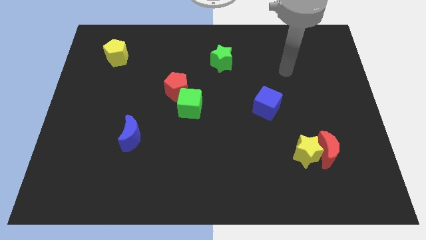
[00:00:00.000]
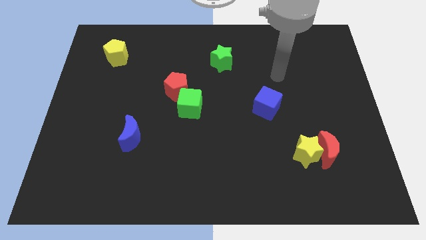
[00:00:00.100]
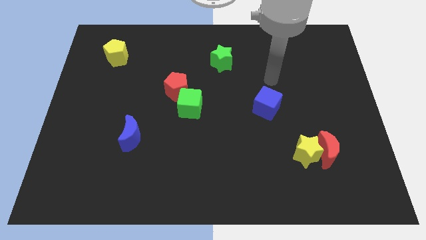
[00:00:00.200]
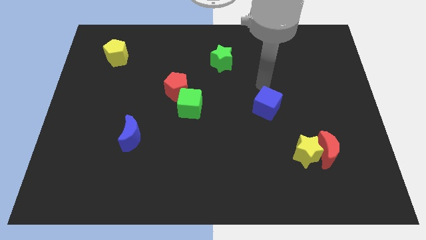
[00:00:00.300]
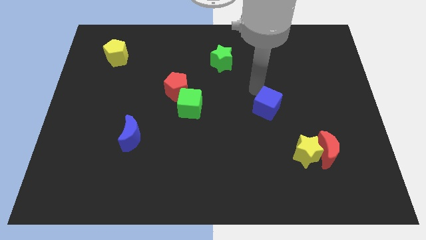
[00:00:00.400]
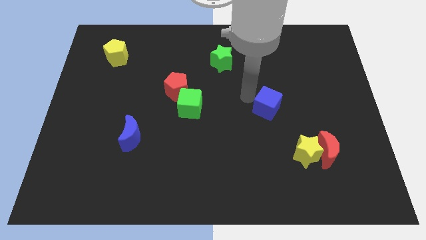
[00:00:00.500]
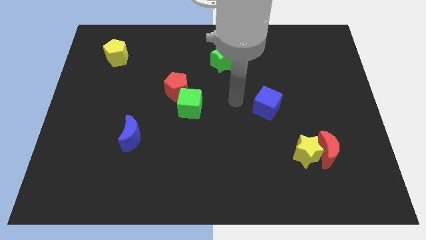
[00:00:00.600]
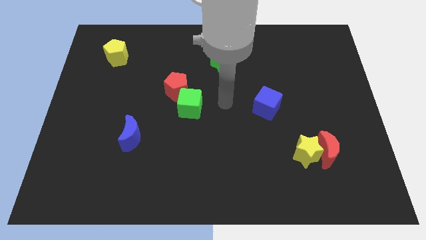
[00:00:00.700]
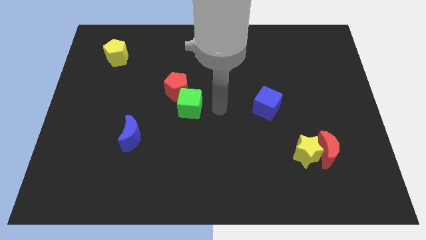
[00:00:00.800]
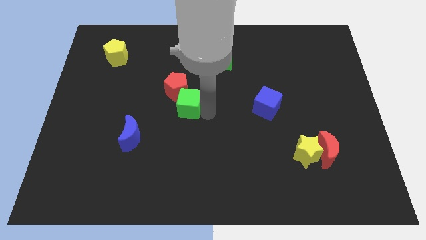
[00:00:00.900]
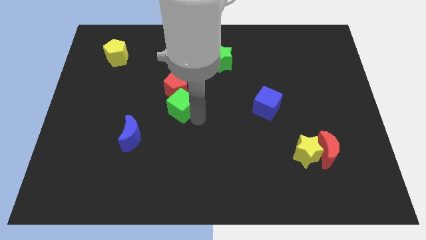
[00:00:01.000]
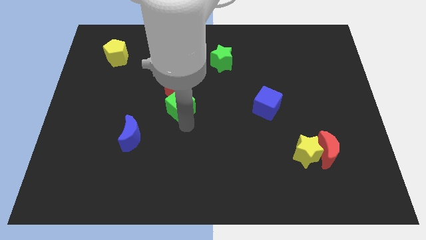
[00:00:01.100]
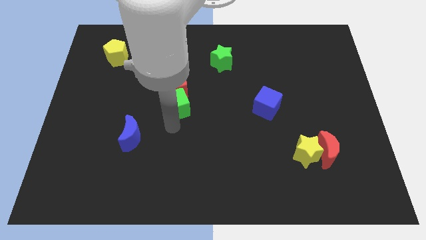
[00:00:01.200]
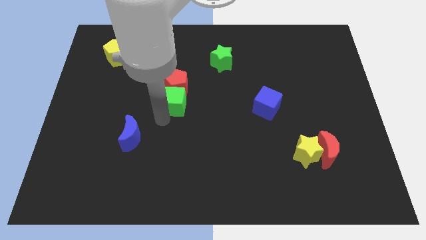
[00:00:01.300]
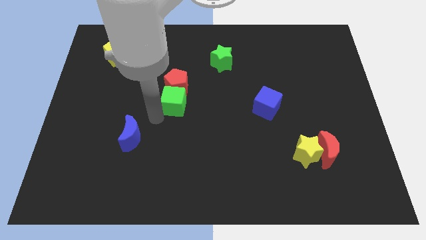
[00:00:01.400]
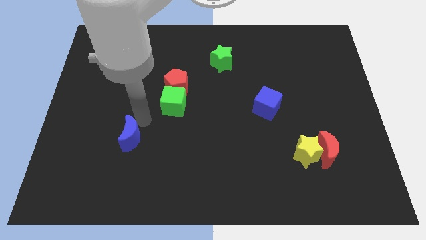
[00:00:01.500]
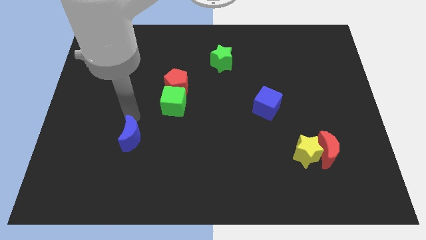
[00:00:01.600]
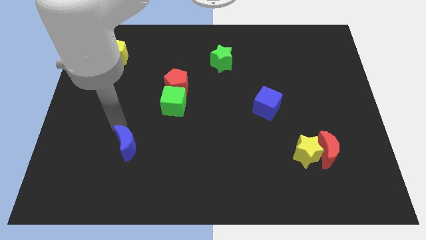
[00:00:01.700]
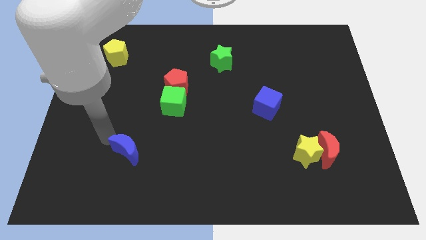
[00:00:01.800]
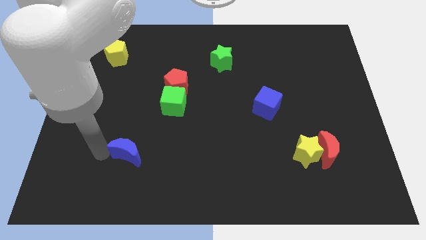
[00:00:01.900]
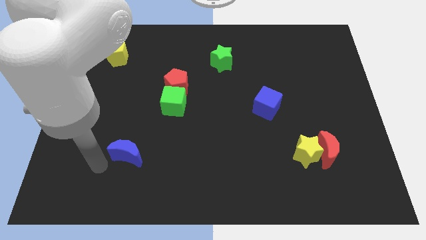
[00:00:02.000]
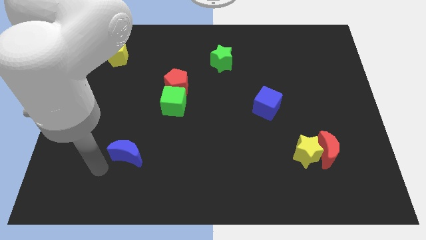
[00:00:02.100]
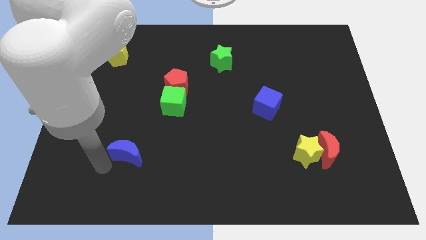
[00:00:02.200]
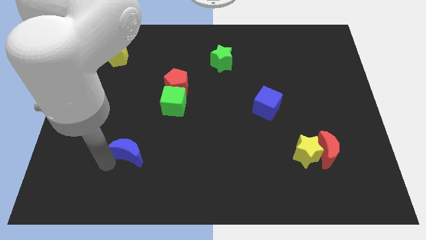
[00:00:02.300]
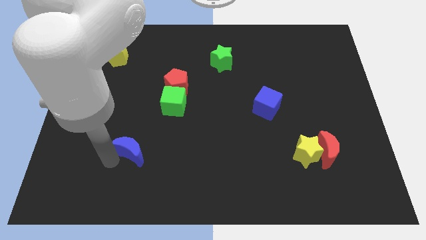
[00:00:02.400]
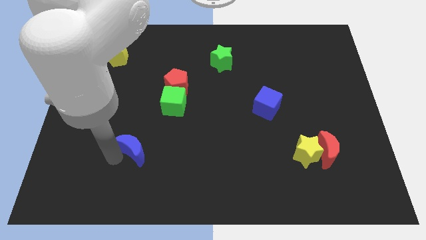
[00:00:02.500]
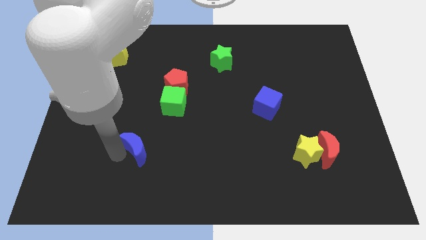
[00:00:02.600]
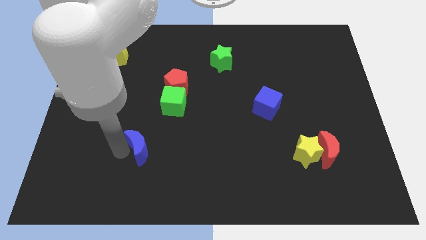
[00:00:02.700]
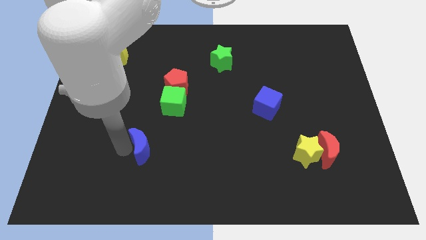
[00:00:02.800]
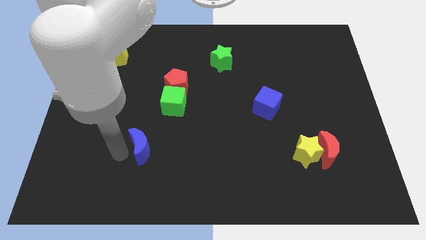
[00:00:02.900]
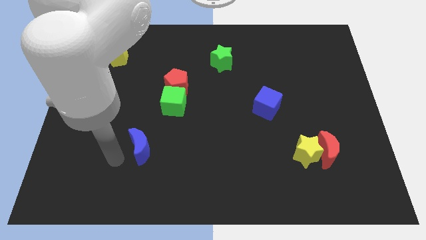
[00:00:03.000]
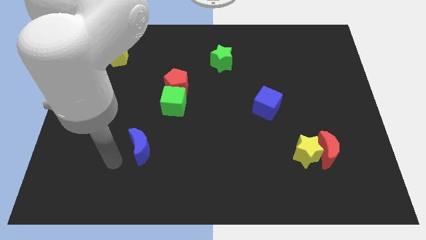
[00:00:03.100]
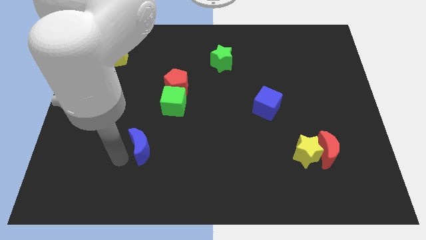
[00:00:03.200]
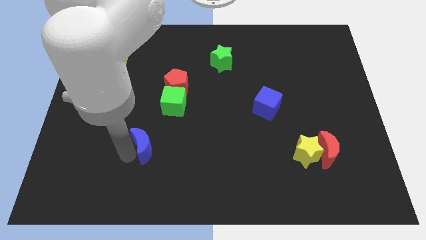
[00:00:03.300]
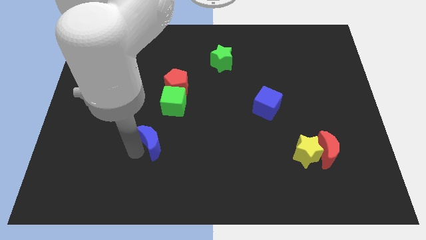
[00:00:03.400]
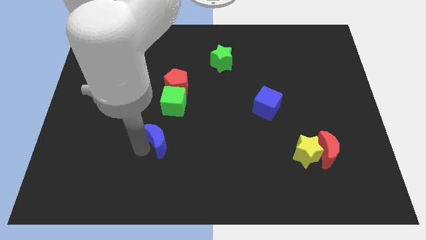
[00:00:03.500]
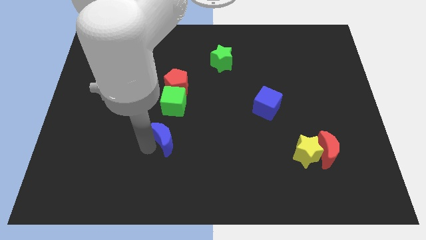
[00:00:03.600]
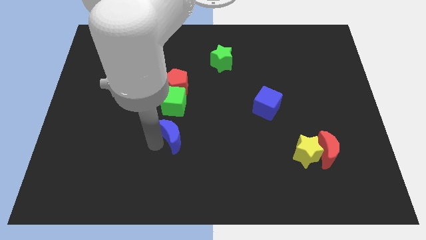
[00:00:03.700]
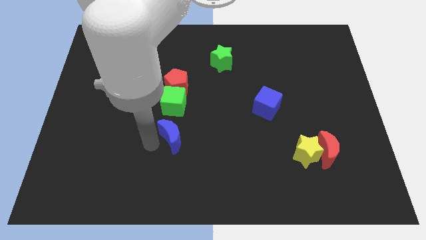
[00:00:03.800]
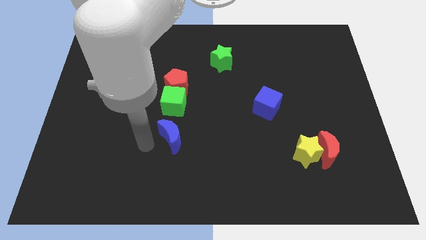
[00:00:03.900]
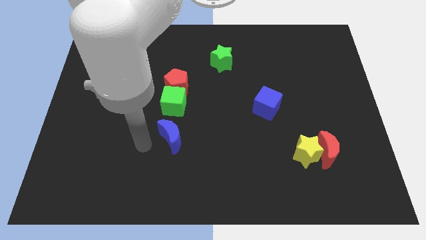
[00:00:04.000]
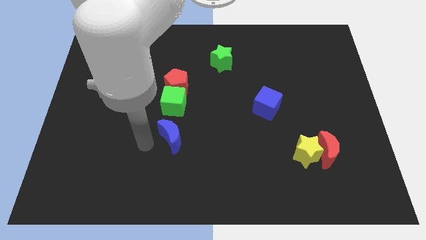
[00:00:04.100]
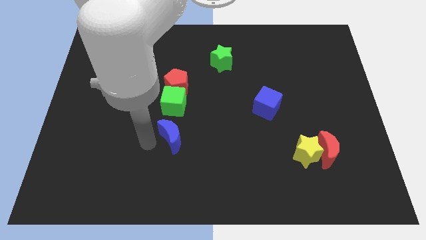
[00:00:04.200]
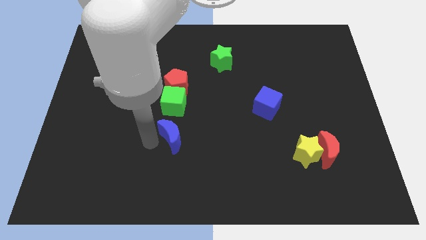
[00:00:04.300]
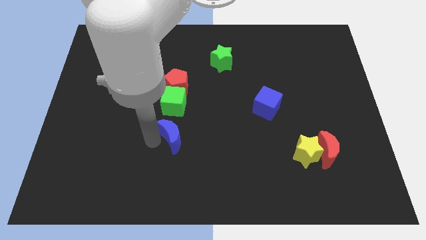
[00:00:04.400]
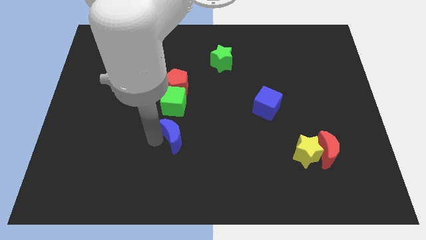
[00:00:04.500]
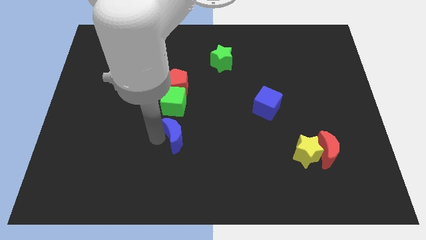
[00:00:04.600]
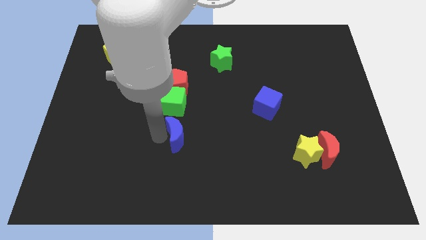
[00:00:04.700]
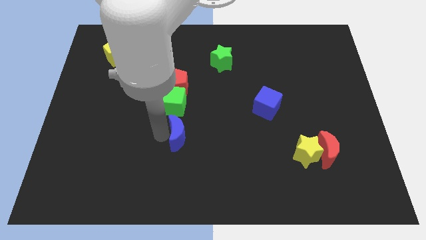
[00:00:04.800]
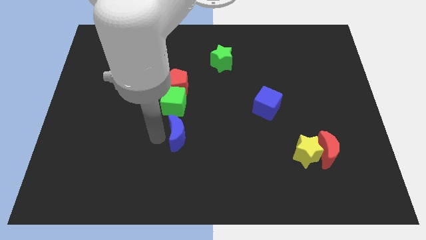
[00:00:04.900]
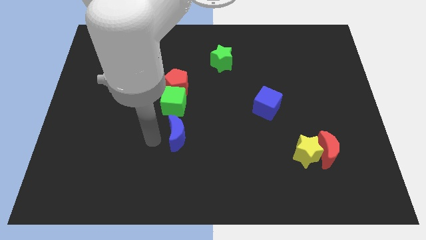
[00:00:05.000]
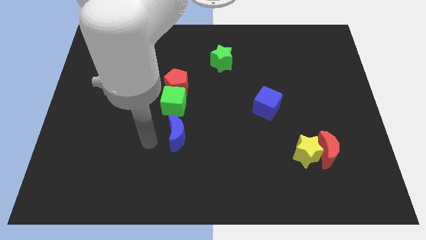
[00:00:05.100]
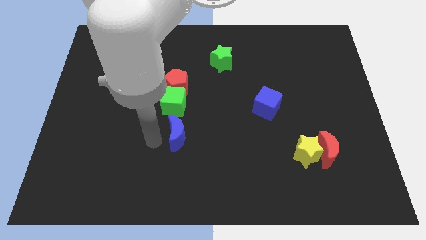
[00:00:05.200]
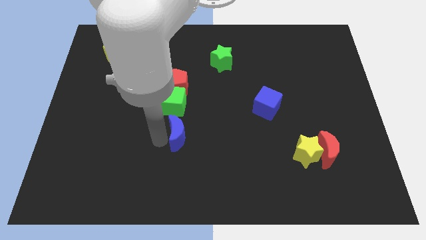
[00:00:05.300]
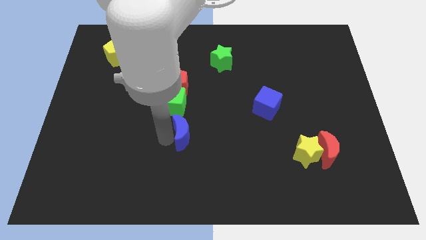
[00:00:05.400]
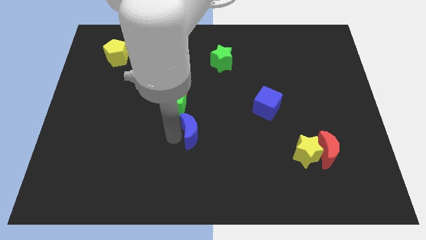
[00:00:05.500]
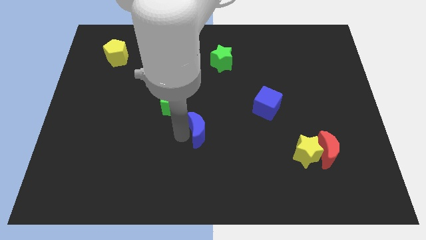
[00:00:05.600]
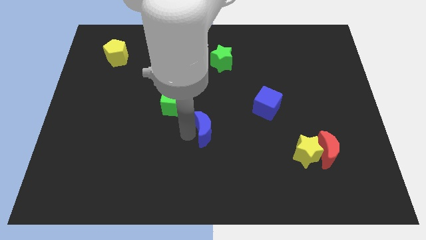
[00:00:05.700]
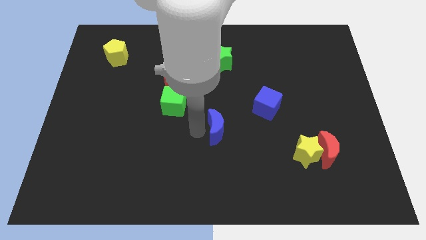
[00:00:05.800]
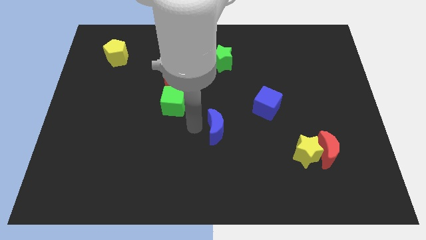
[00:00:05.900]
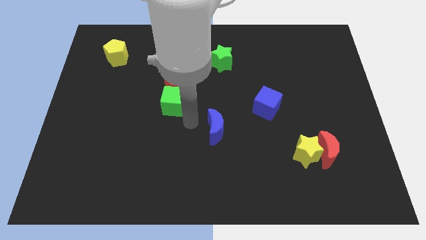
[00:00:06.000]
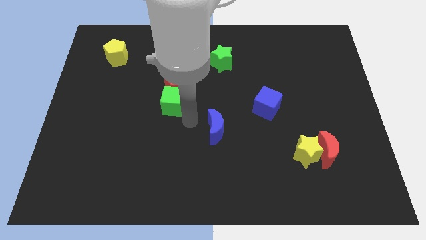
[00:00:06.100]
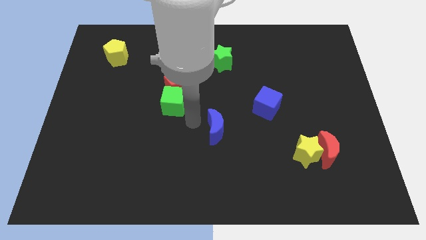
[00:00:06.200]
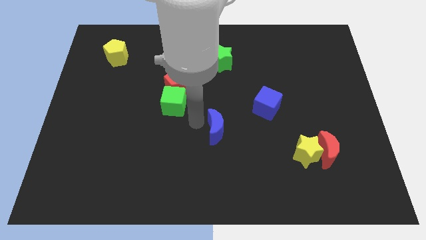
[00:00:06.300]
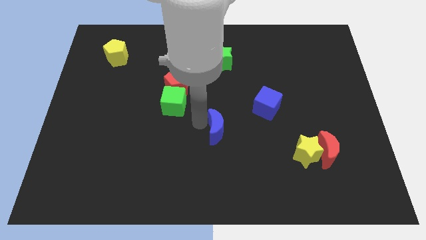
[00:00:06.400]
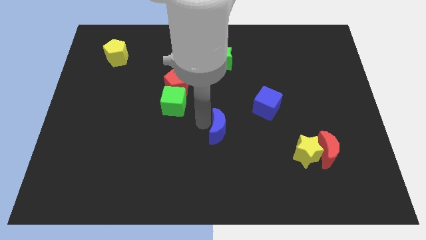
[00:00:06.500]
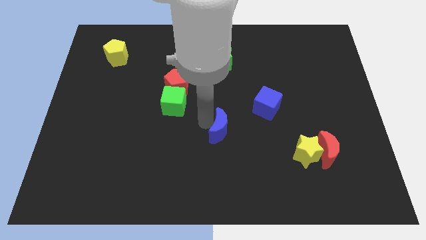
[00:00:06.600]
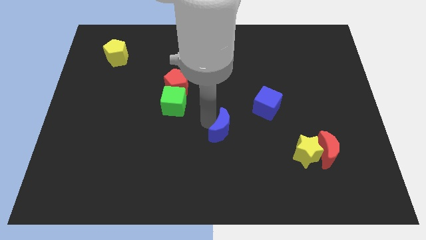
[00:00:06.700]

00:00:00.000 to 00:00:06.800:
move the blue moon to the right

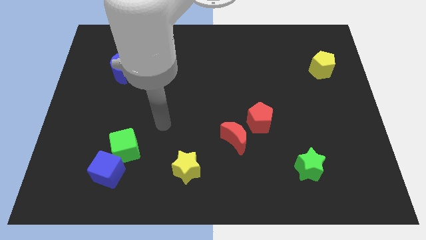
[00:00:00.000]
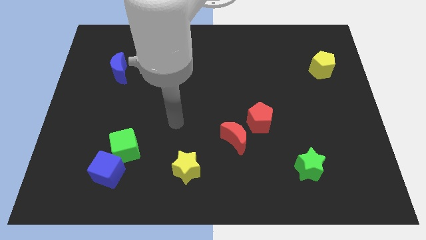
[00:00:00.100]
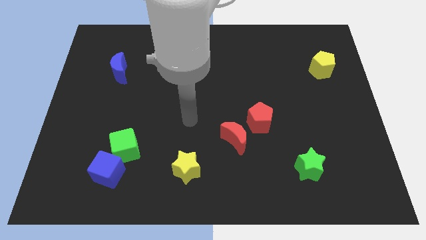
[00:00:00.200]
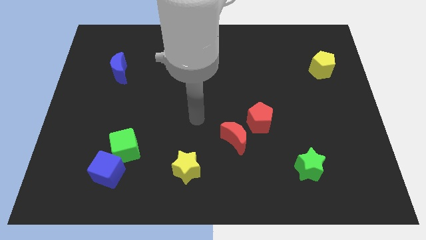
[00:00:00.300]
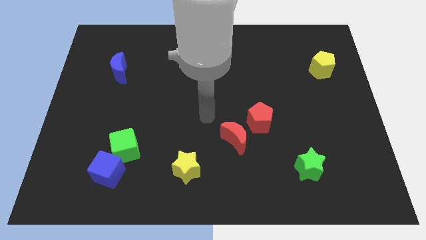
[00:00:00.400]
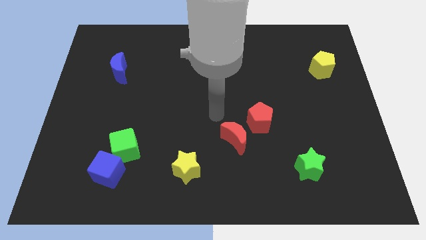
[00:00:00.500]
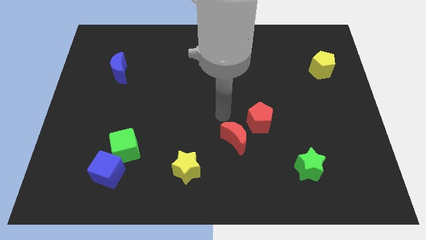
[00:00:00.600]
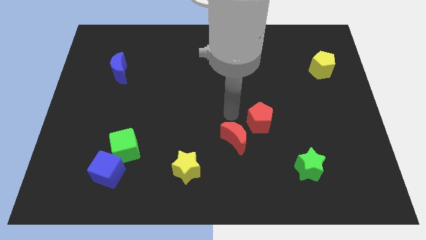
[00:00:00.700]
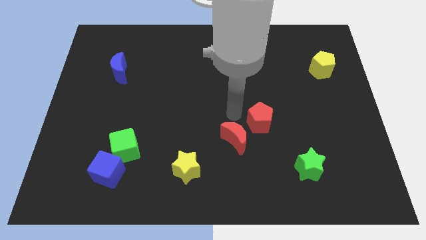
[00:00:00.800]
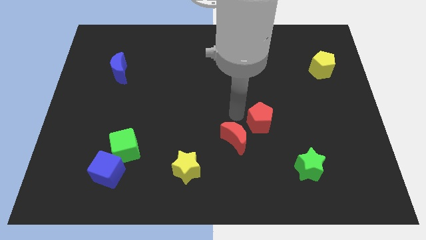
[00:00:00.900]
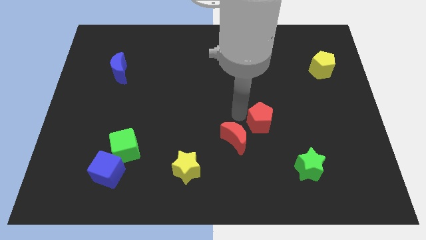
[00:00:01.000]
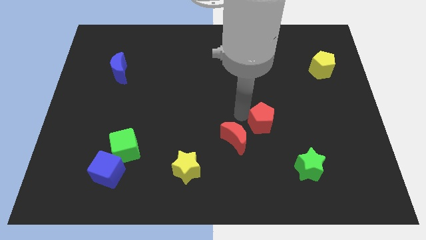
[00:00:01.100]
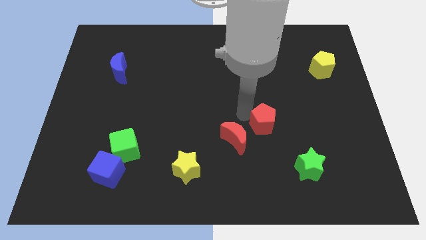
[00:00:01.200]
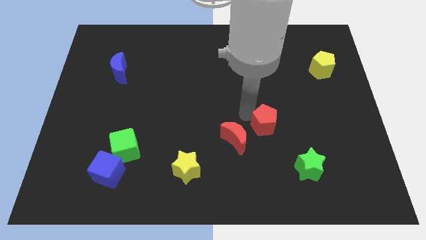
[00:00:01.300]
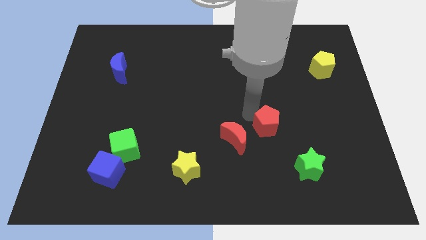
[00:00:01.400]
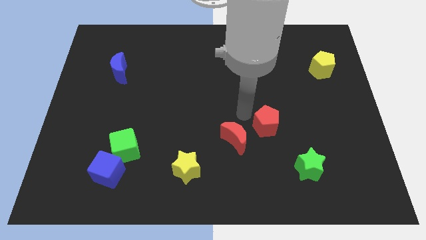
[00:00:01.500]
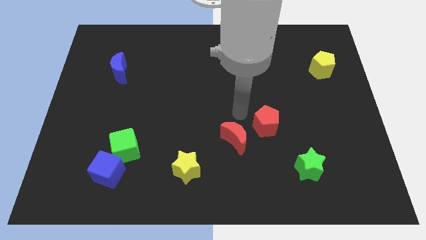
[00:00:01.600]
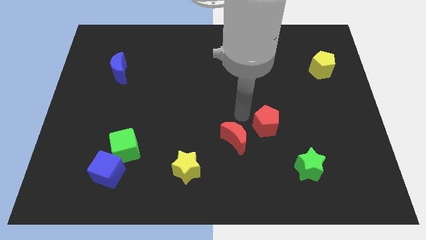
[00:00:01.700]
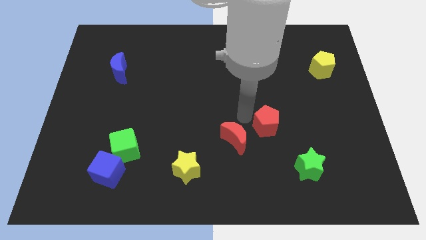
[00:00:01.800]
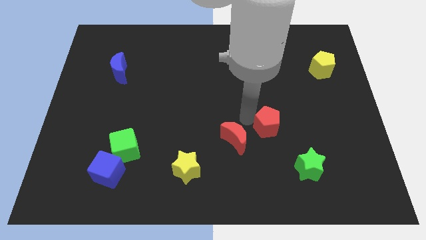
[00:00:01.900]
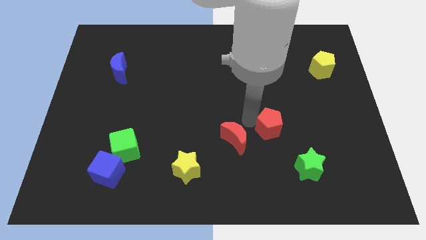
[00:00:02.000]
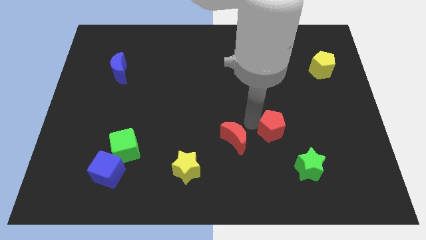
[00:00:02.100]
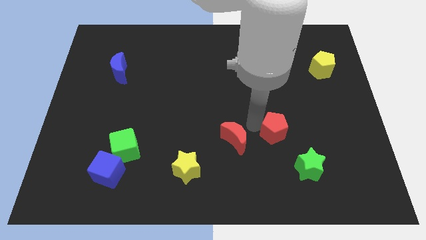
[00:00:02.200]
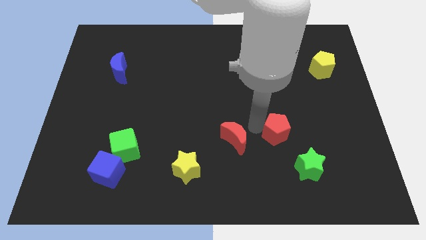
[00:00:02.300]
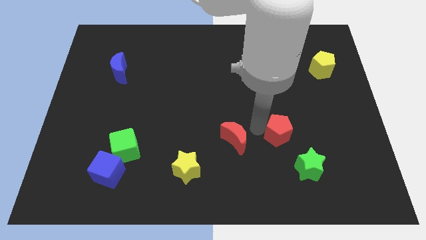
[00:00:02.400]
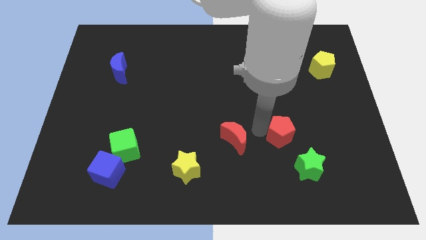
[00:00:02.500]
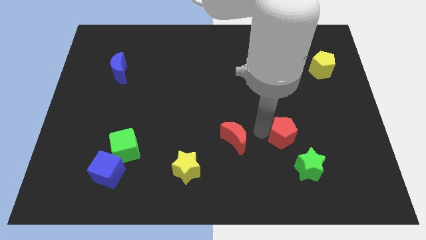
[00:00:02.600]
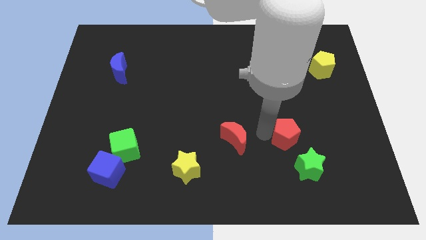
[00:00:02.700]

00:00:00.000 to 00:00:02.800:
move the red pentagon somewhat downwards and right
